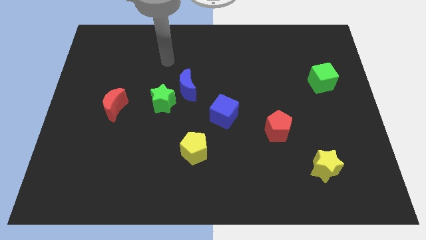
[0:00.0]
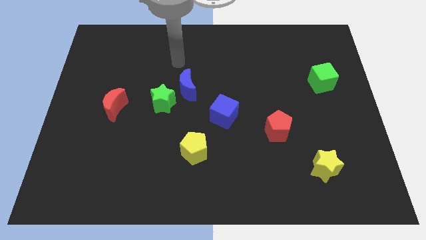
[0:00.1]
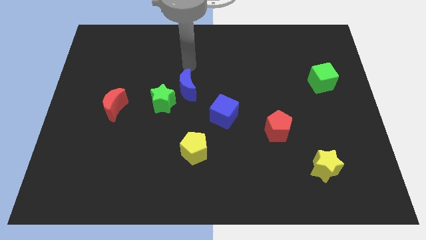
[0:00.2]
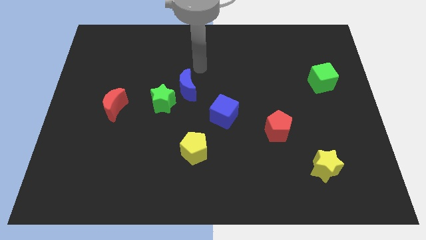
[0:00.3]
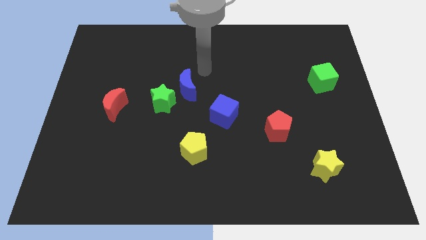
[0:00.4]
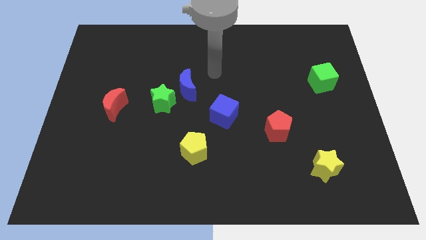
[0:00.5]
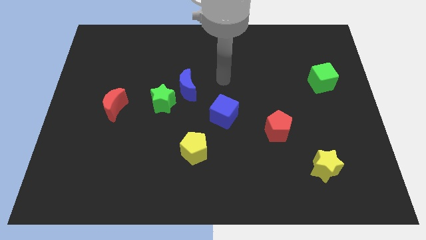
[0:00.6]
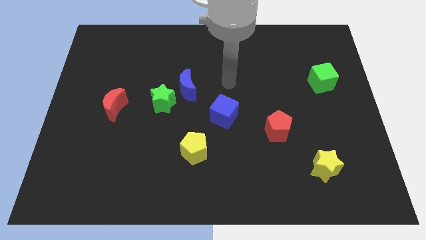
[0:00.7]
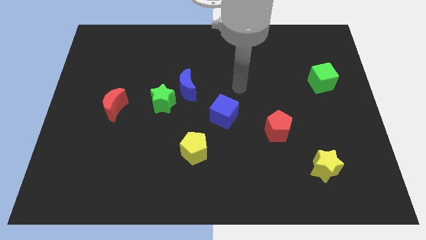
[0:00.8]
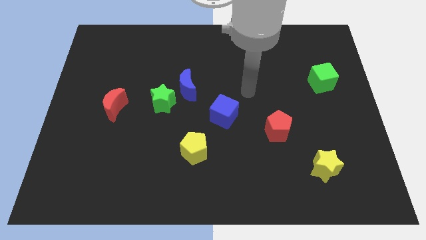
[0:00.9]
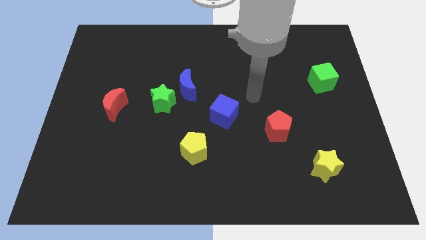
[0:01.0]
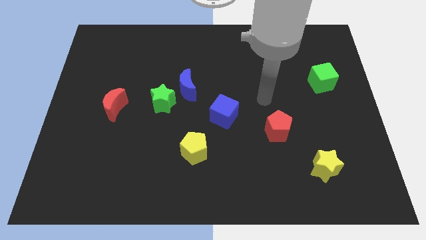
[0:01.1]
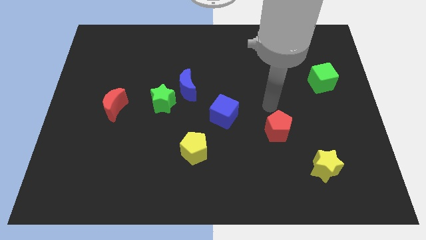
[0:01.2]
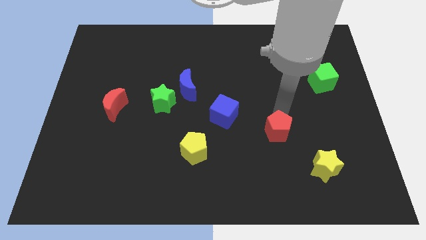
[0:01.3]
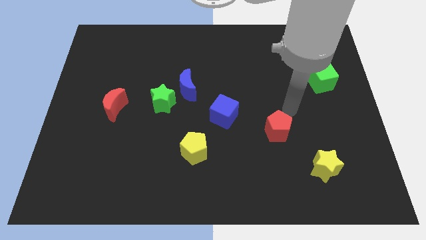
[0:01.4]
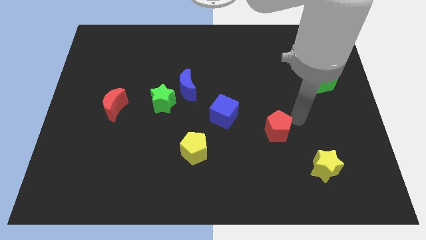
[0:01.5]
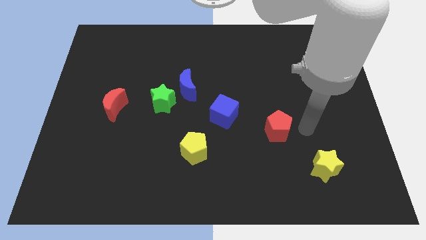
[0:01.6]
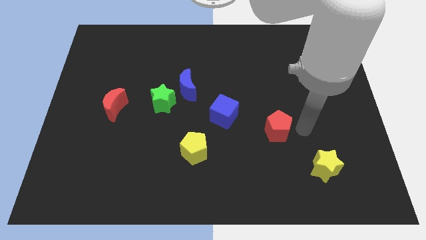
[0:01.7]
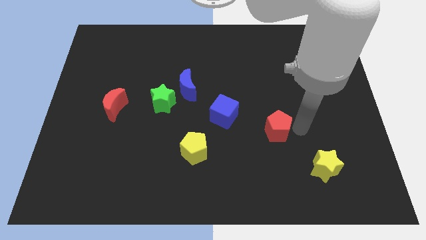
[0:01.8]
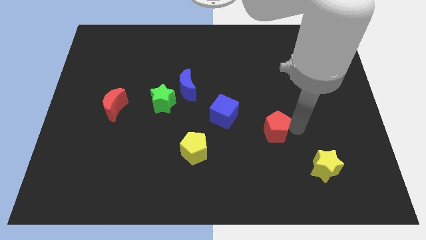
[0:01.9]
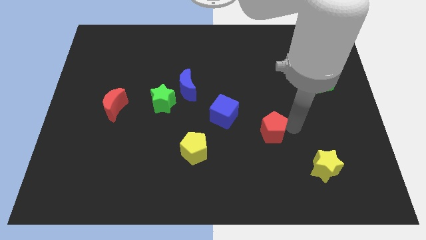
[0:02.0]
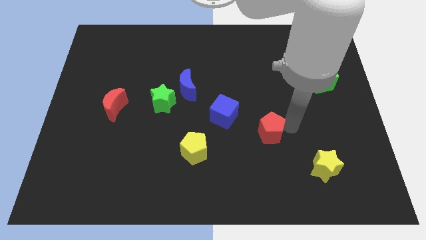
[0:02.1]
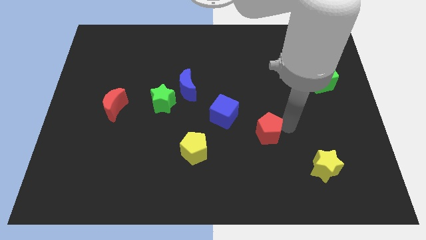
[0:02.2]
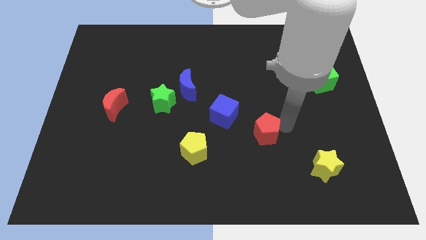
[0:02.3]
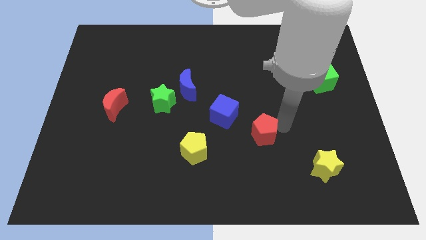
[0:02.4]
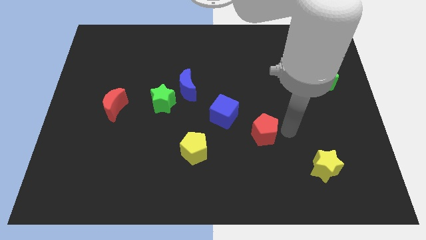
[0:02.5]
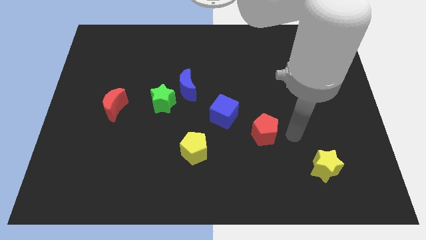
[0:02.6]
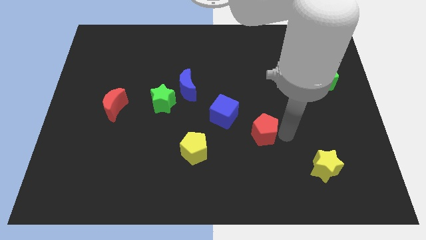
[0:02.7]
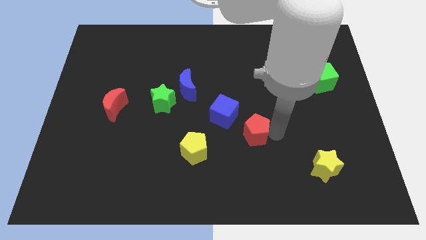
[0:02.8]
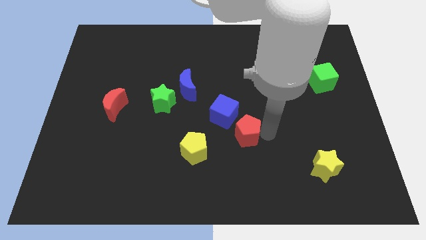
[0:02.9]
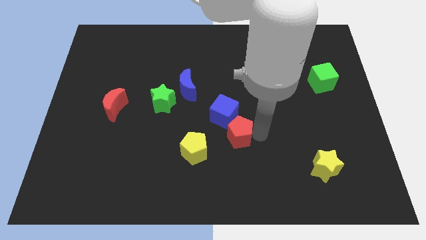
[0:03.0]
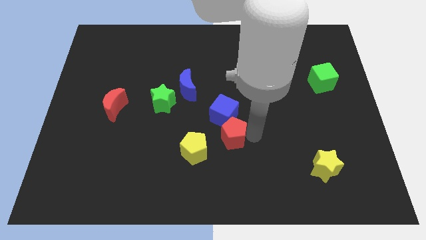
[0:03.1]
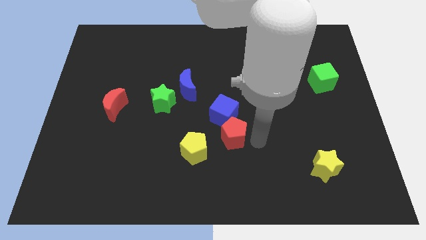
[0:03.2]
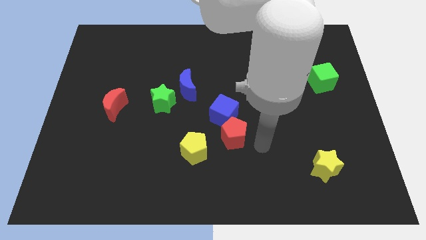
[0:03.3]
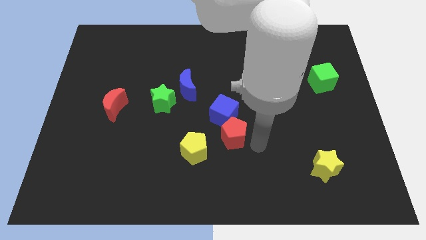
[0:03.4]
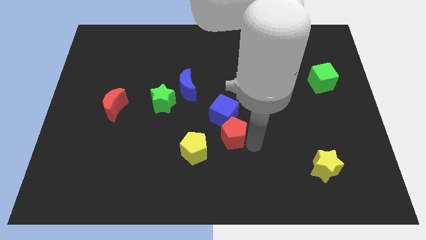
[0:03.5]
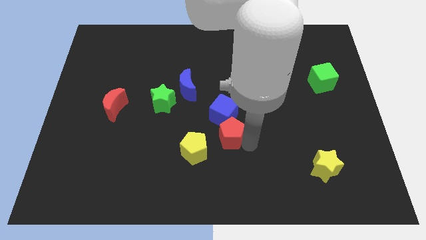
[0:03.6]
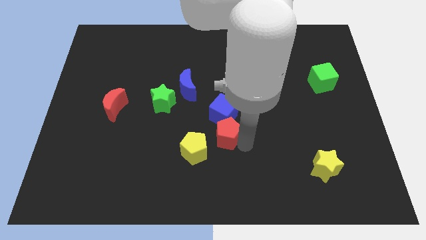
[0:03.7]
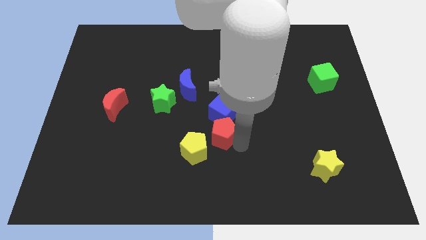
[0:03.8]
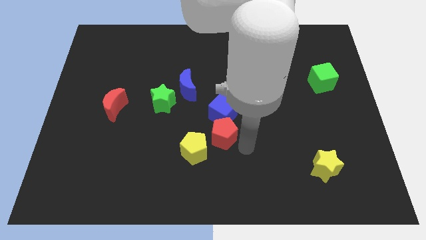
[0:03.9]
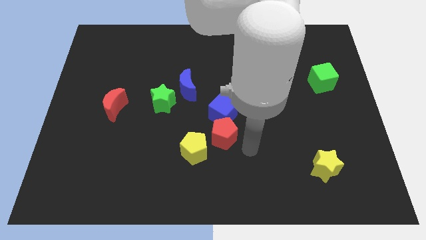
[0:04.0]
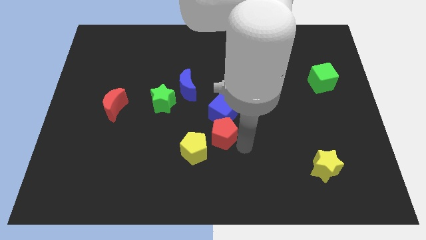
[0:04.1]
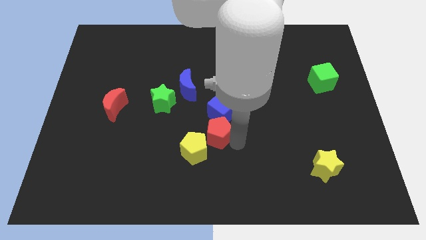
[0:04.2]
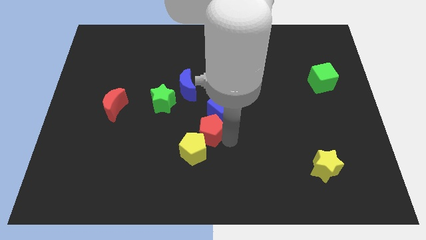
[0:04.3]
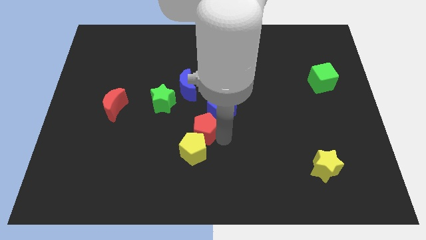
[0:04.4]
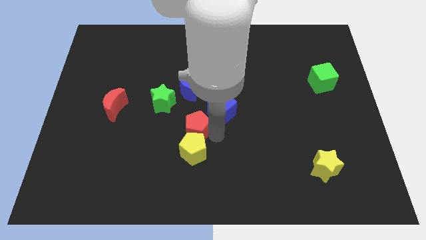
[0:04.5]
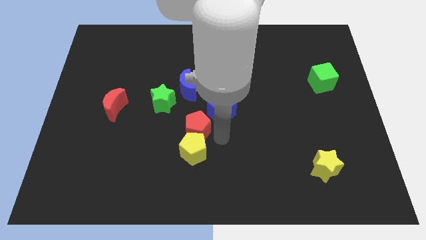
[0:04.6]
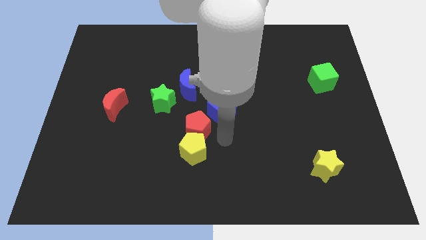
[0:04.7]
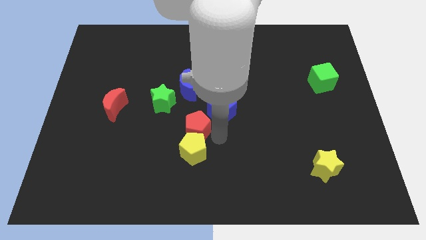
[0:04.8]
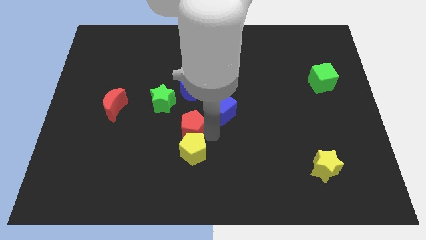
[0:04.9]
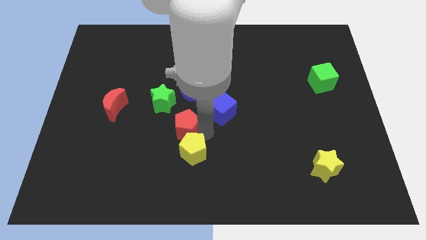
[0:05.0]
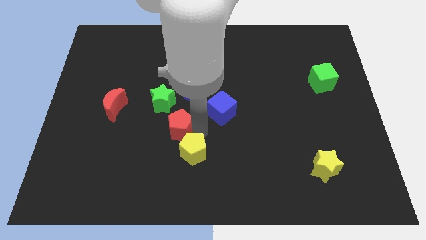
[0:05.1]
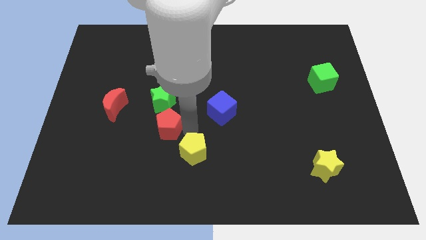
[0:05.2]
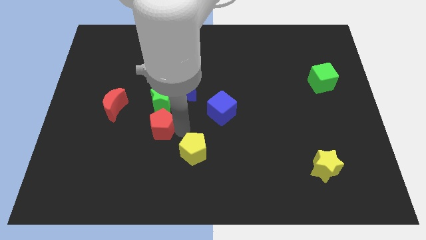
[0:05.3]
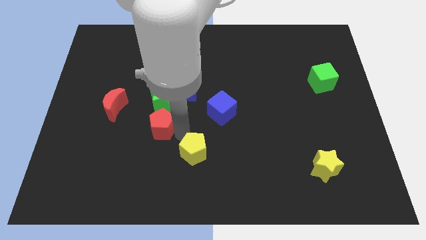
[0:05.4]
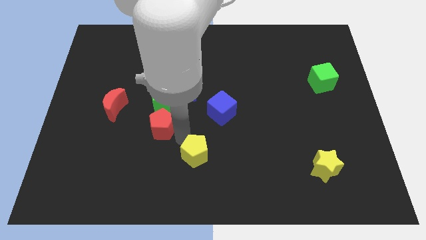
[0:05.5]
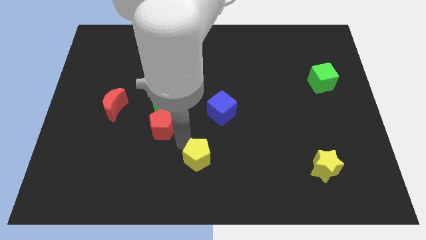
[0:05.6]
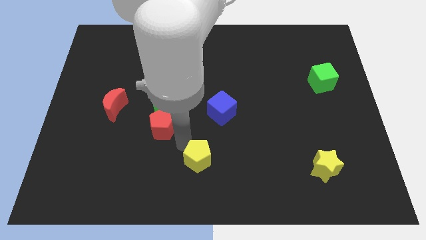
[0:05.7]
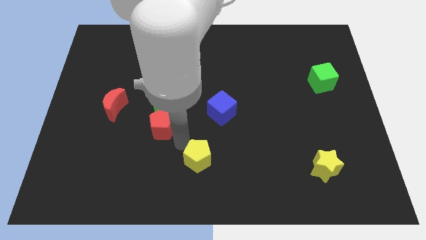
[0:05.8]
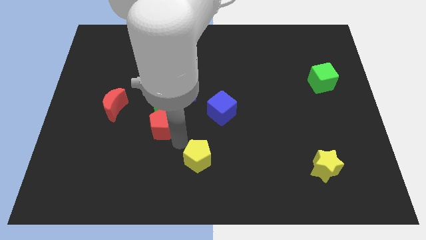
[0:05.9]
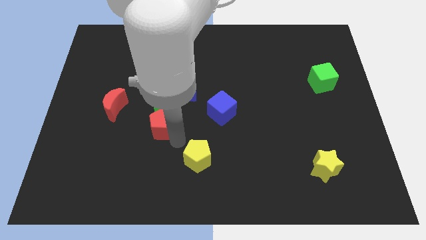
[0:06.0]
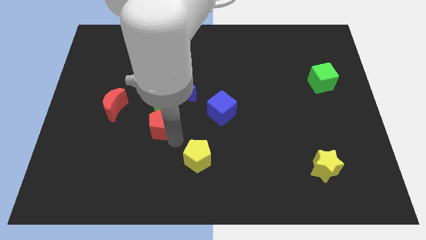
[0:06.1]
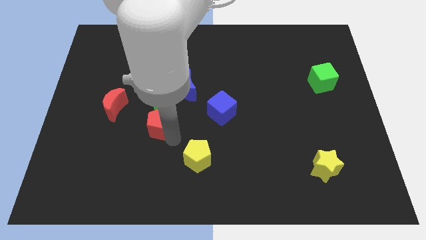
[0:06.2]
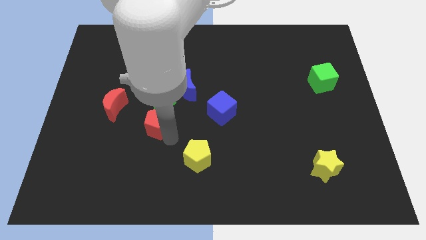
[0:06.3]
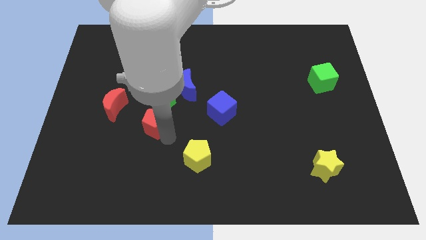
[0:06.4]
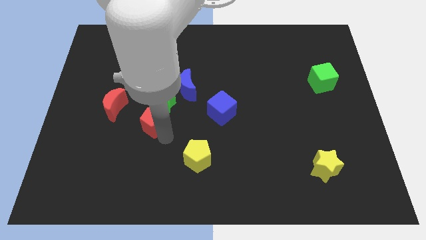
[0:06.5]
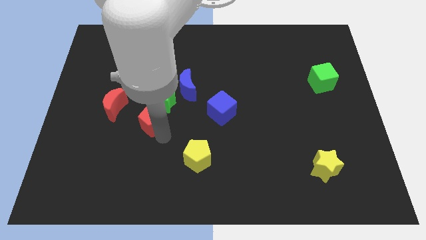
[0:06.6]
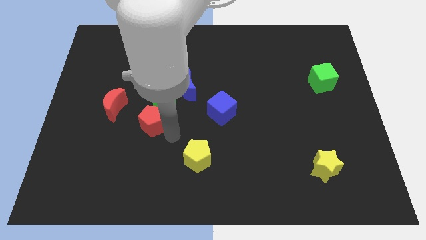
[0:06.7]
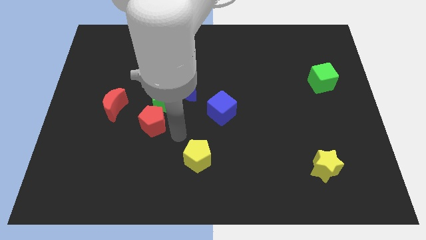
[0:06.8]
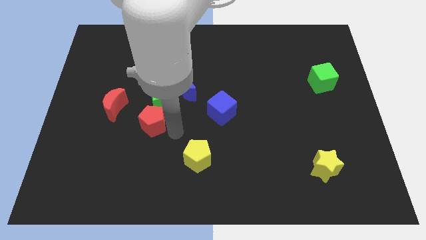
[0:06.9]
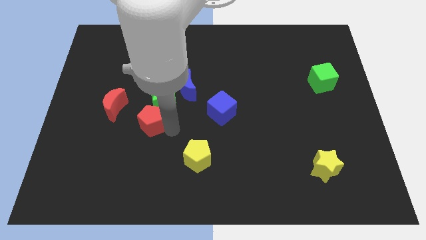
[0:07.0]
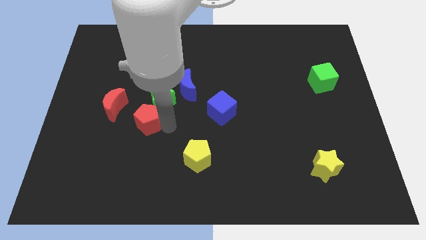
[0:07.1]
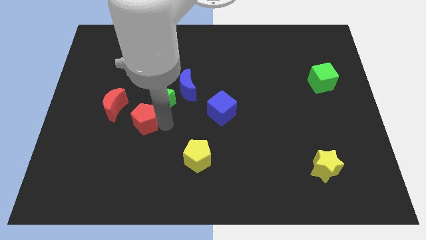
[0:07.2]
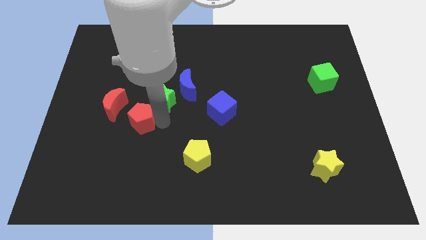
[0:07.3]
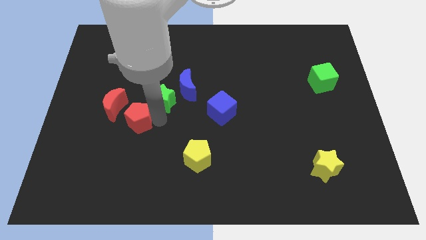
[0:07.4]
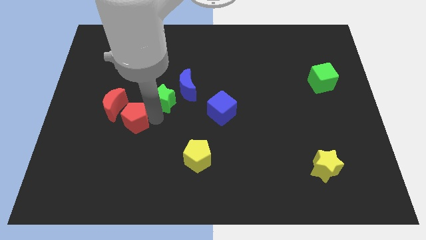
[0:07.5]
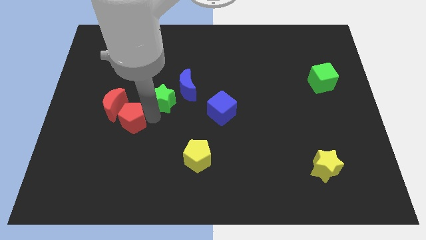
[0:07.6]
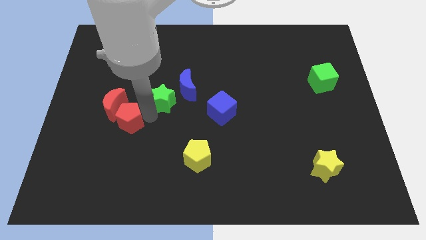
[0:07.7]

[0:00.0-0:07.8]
move the red pentagon next to the red moon
